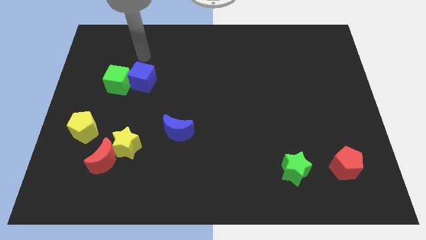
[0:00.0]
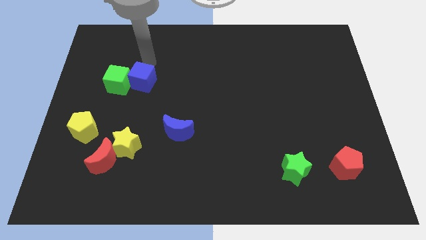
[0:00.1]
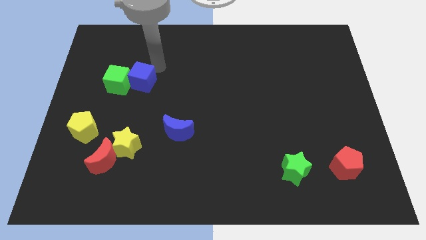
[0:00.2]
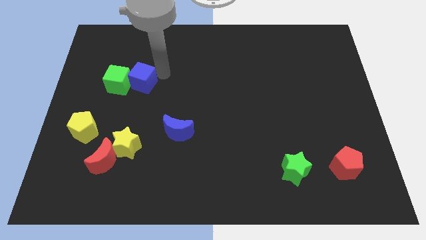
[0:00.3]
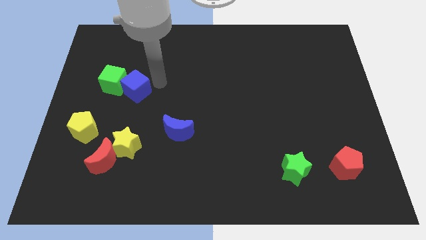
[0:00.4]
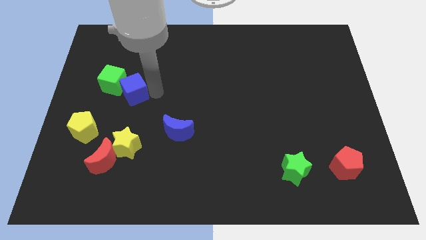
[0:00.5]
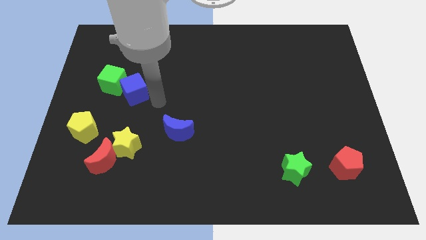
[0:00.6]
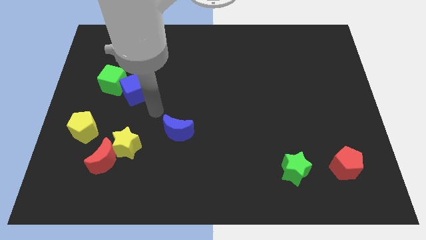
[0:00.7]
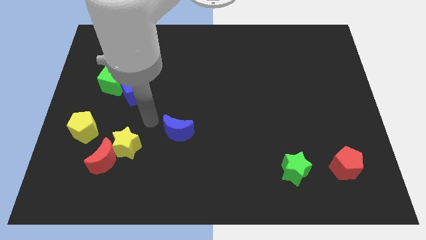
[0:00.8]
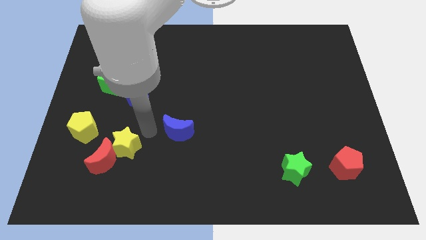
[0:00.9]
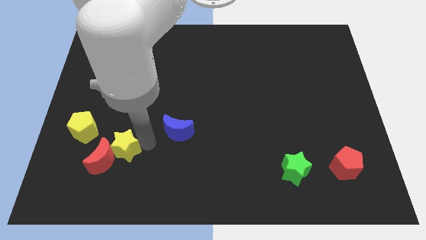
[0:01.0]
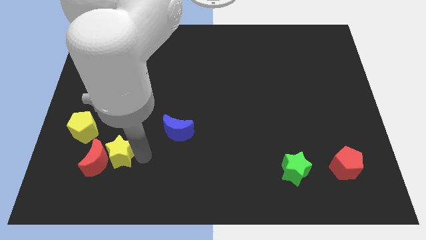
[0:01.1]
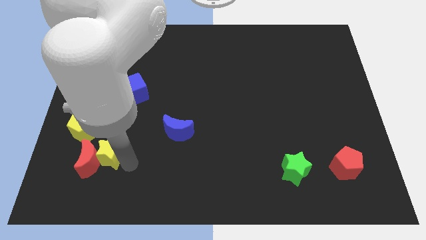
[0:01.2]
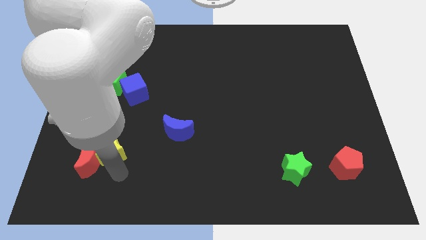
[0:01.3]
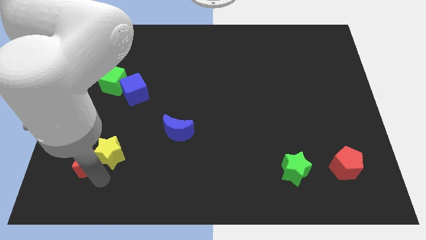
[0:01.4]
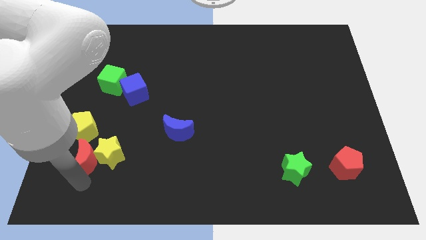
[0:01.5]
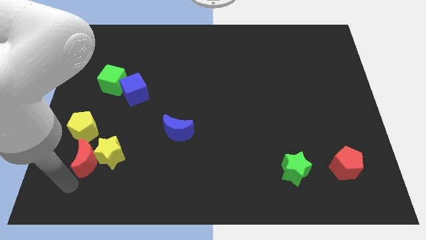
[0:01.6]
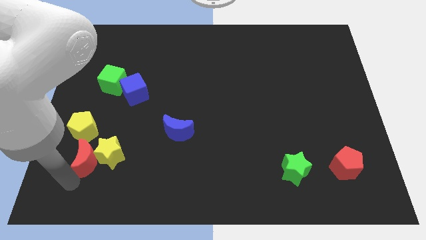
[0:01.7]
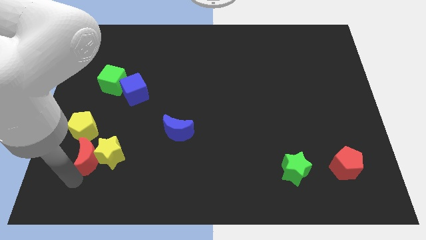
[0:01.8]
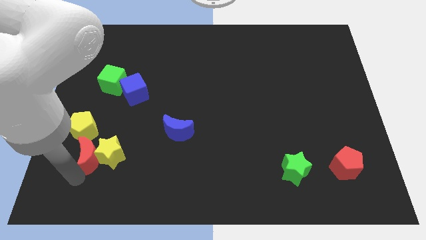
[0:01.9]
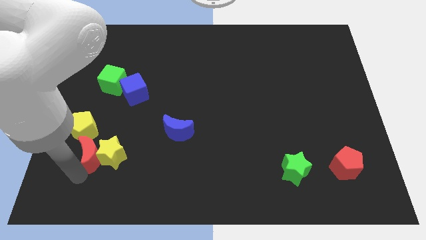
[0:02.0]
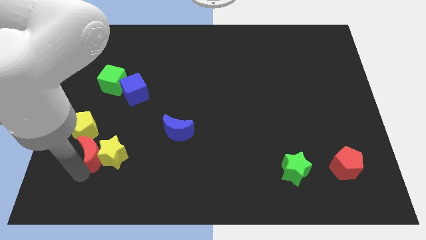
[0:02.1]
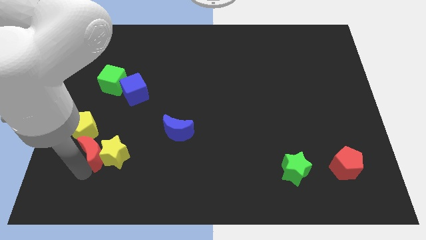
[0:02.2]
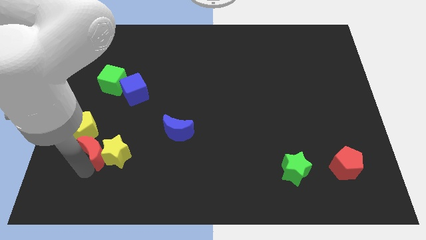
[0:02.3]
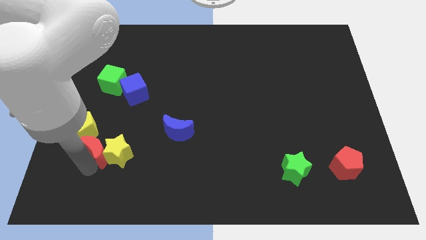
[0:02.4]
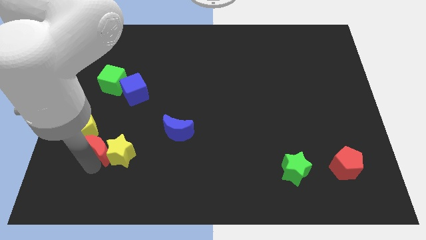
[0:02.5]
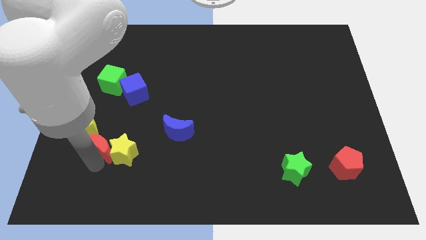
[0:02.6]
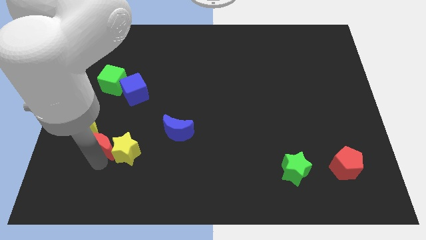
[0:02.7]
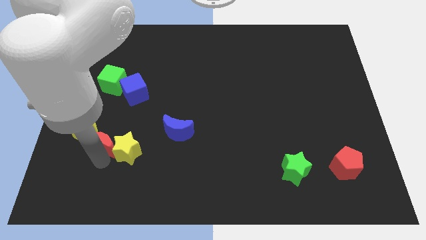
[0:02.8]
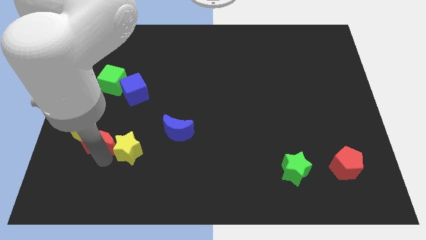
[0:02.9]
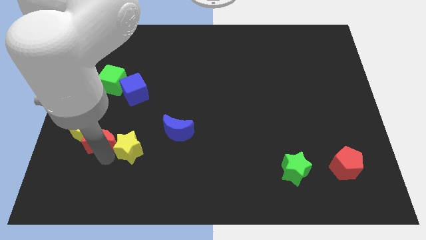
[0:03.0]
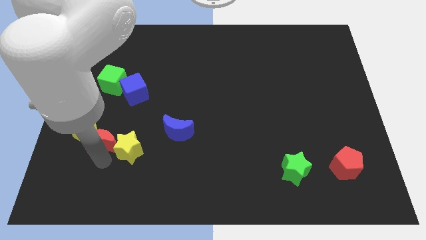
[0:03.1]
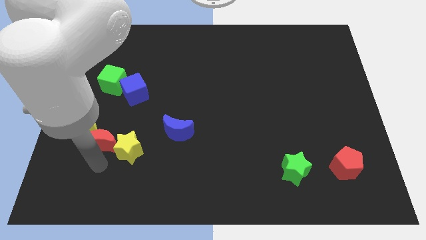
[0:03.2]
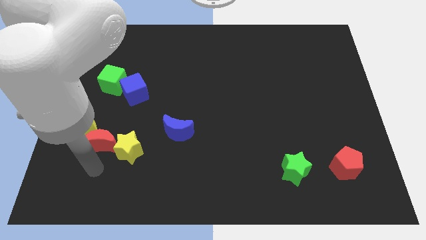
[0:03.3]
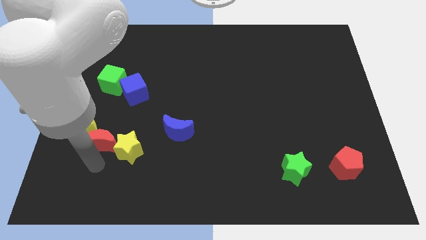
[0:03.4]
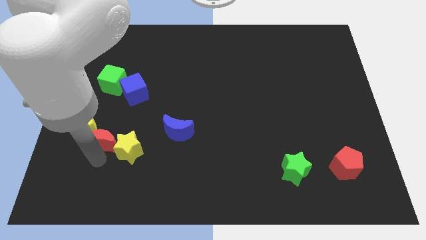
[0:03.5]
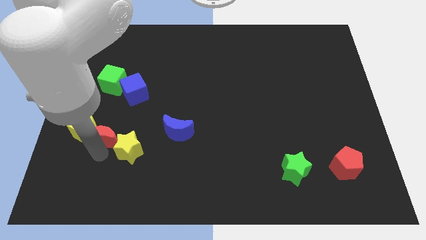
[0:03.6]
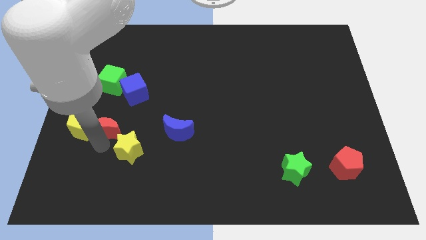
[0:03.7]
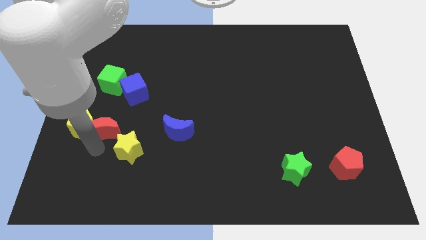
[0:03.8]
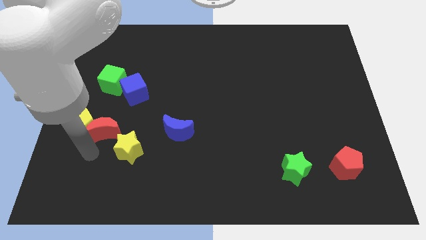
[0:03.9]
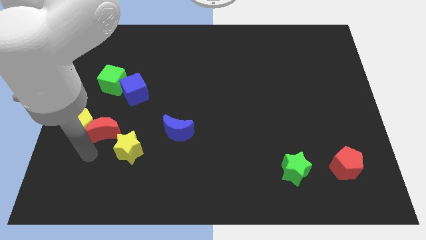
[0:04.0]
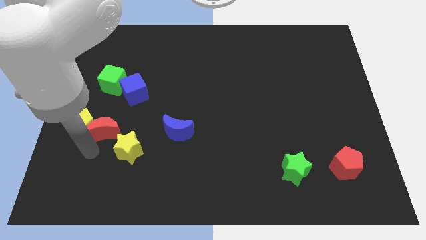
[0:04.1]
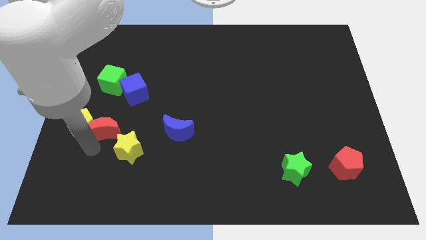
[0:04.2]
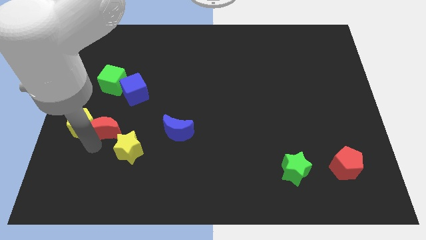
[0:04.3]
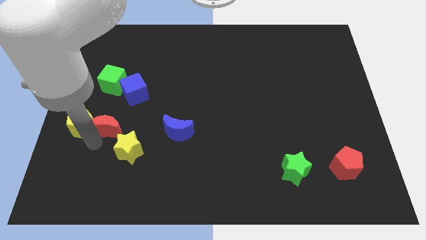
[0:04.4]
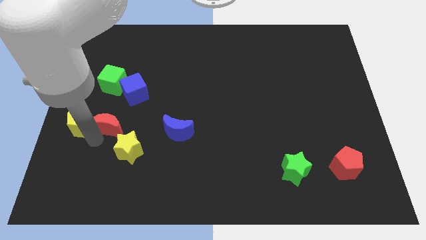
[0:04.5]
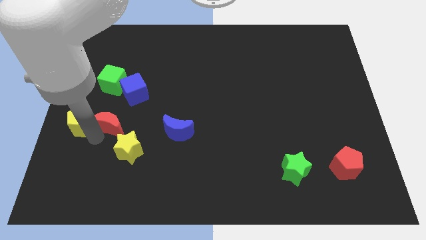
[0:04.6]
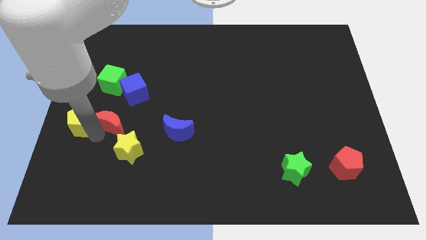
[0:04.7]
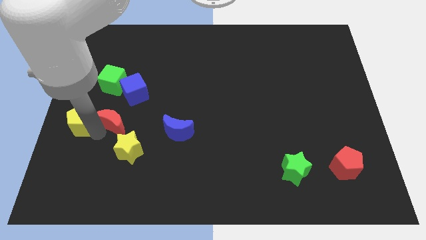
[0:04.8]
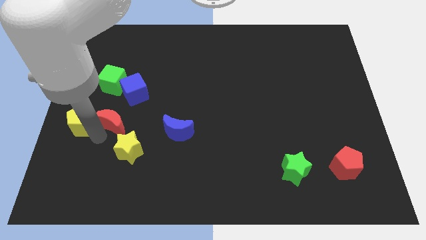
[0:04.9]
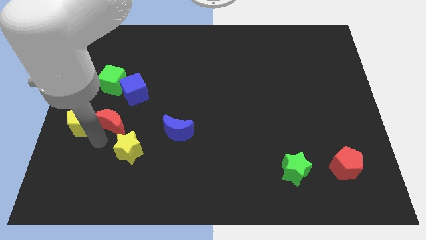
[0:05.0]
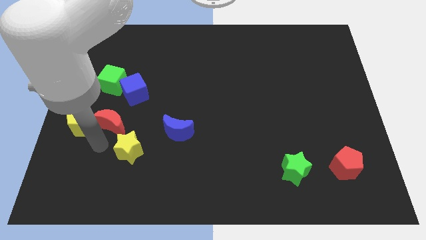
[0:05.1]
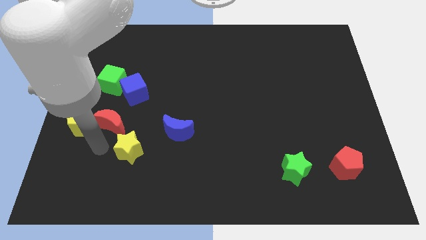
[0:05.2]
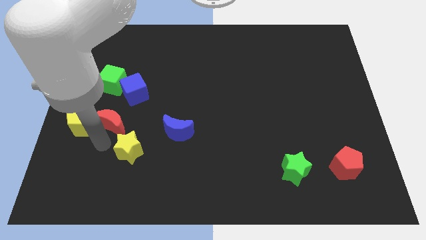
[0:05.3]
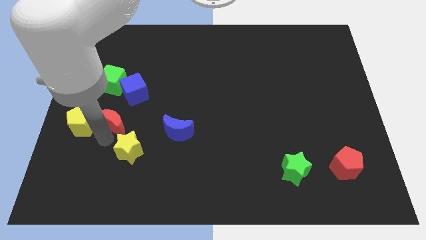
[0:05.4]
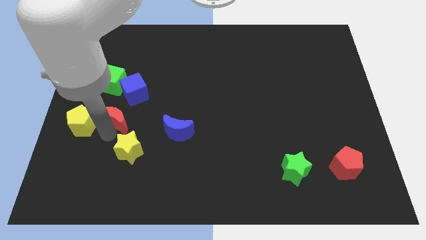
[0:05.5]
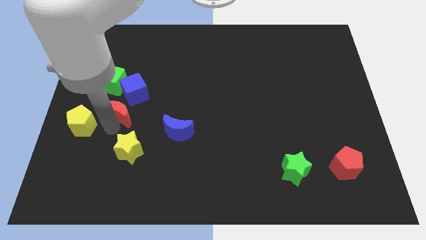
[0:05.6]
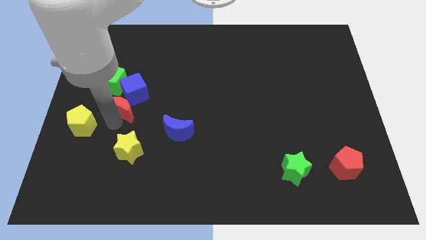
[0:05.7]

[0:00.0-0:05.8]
push the red moon next to the blue cube

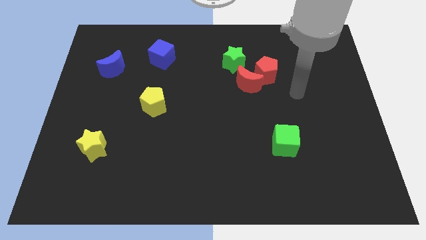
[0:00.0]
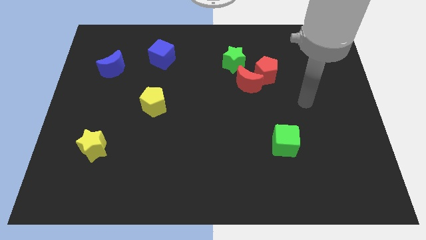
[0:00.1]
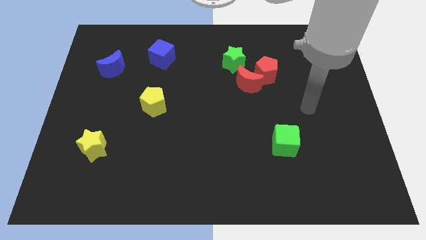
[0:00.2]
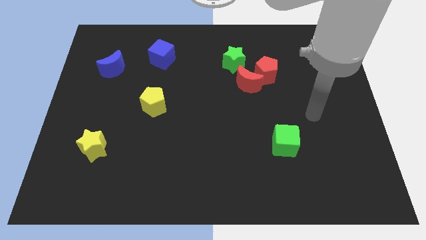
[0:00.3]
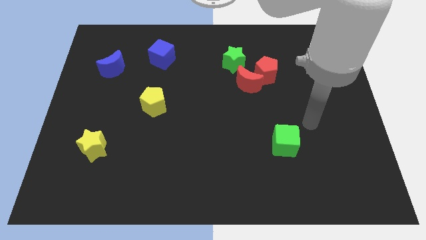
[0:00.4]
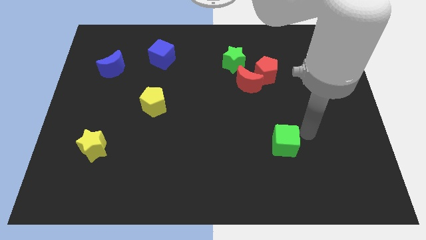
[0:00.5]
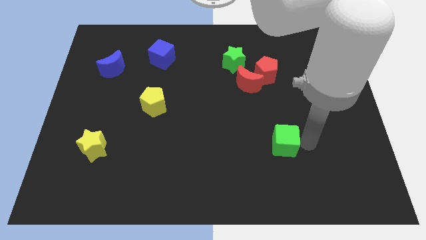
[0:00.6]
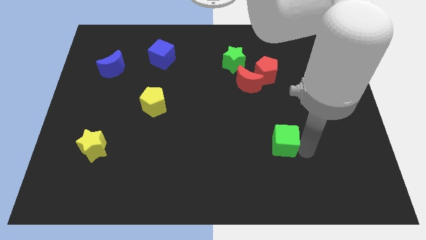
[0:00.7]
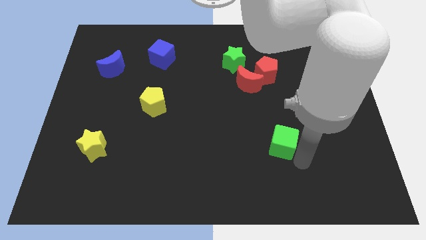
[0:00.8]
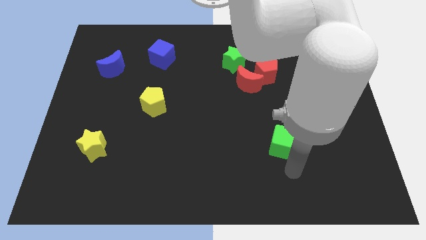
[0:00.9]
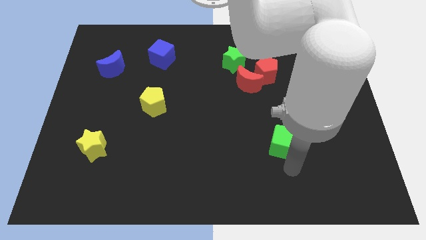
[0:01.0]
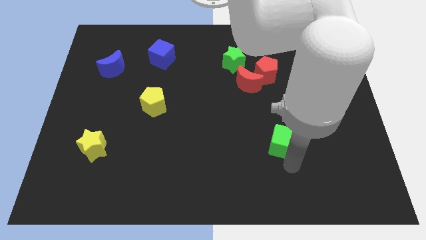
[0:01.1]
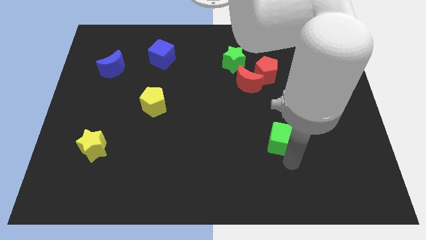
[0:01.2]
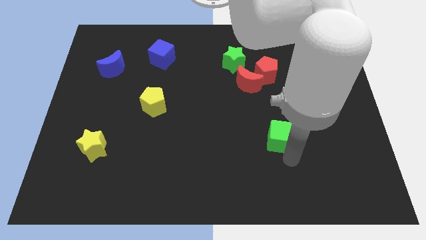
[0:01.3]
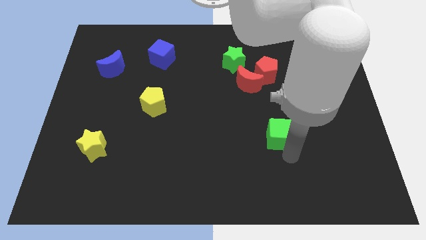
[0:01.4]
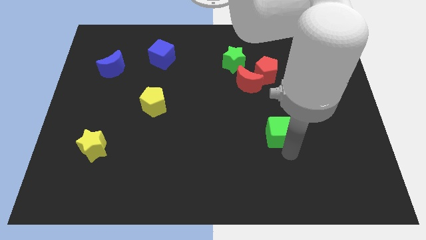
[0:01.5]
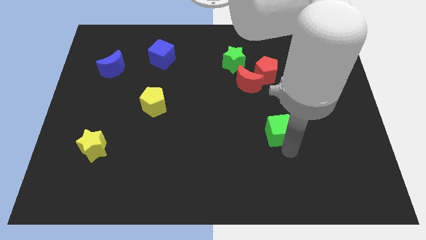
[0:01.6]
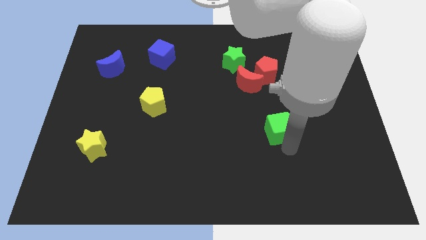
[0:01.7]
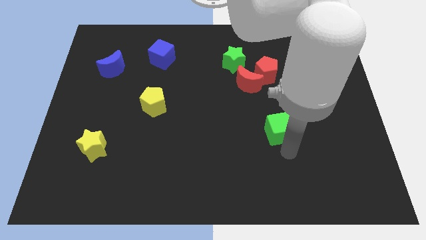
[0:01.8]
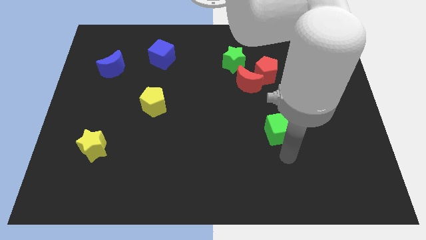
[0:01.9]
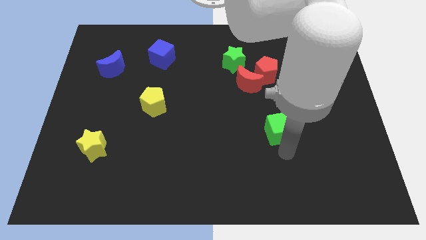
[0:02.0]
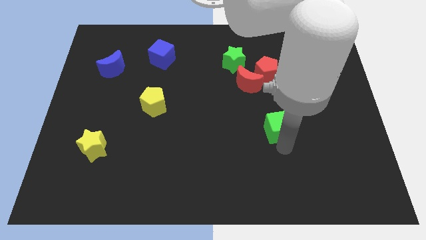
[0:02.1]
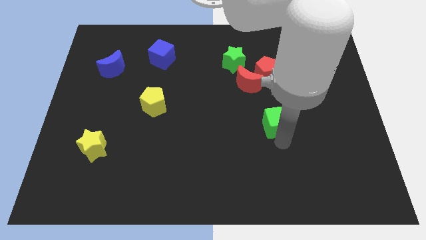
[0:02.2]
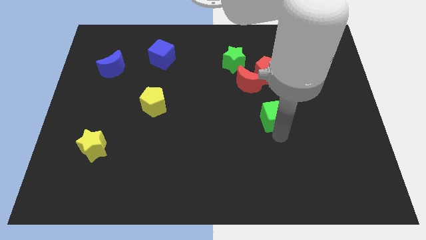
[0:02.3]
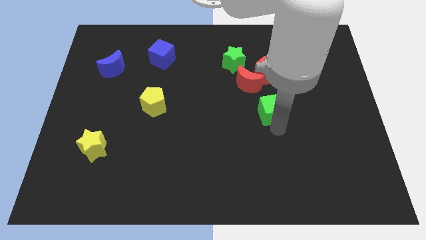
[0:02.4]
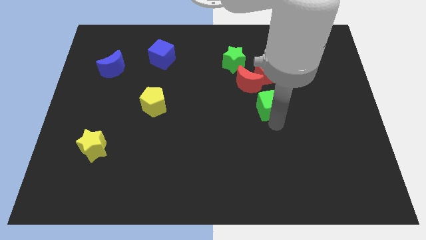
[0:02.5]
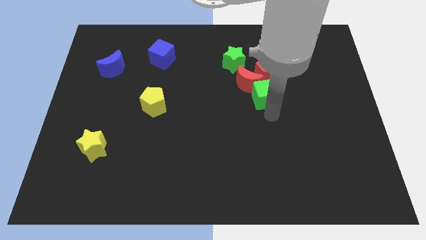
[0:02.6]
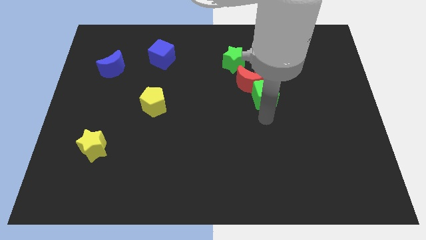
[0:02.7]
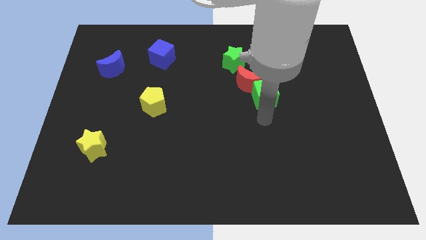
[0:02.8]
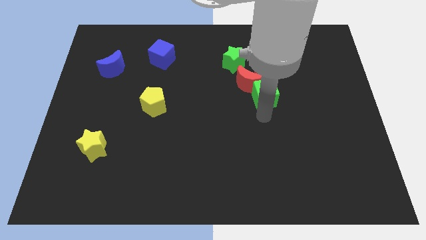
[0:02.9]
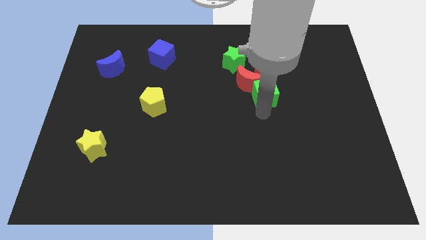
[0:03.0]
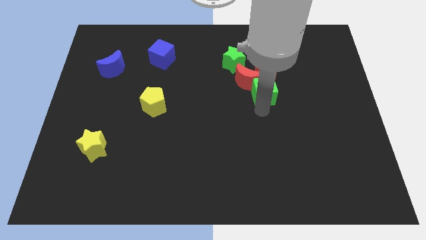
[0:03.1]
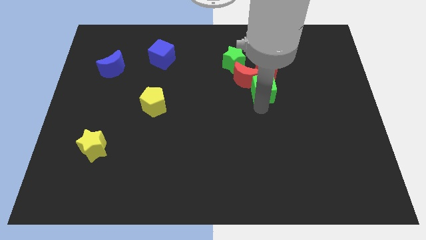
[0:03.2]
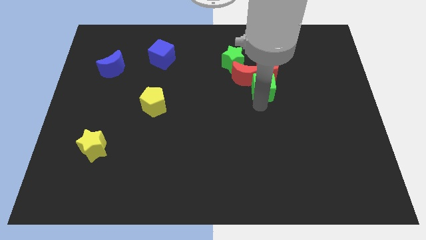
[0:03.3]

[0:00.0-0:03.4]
slide the green cube to the red pentagon
